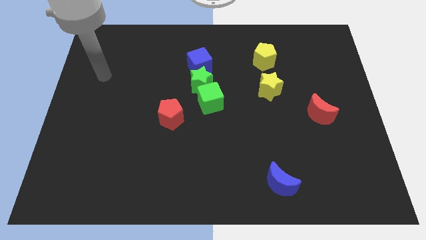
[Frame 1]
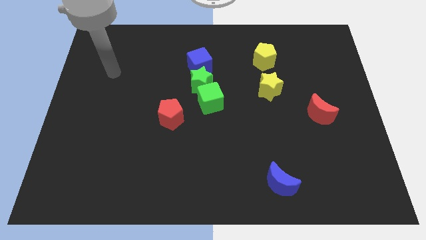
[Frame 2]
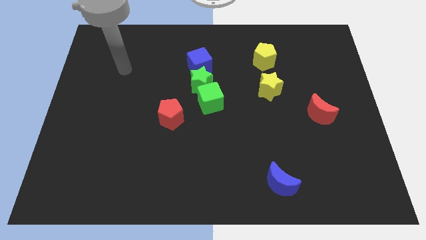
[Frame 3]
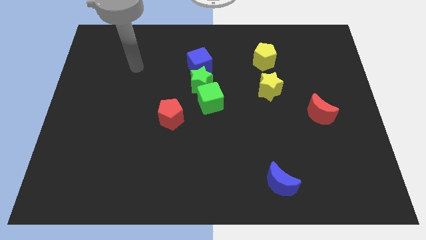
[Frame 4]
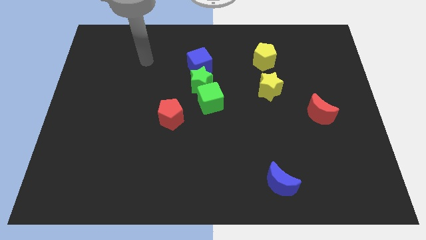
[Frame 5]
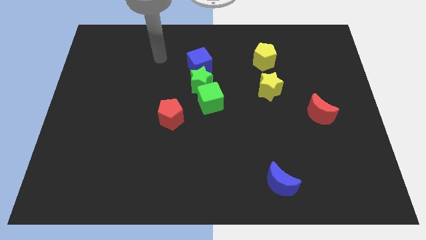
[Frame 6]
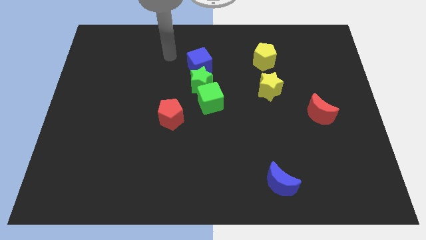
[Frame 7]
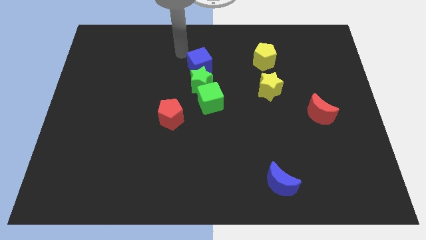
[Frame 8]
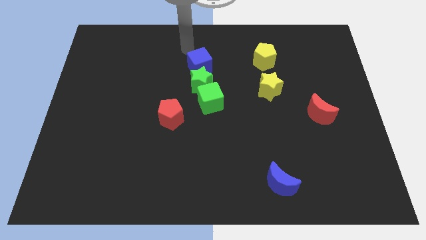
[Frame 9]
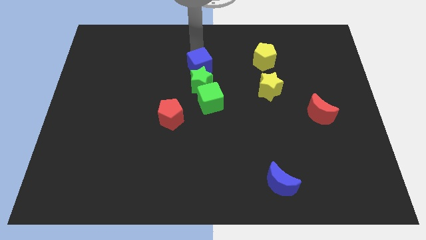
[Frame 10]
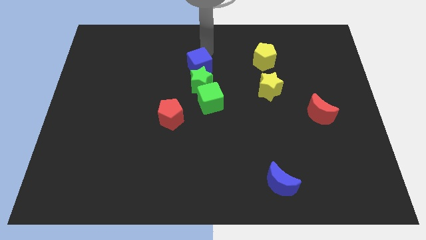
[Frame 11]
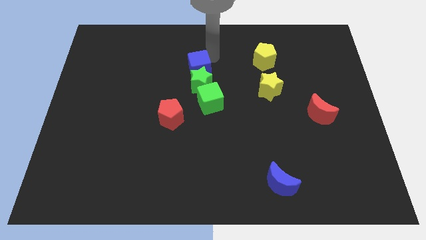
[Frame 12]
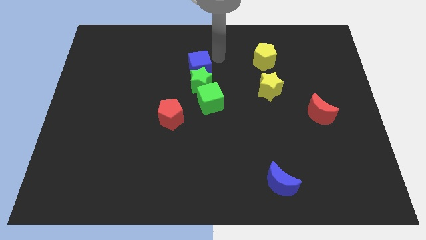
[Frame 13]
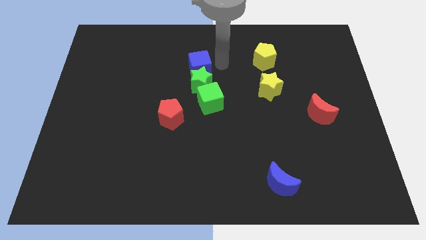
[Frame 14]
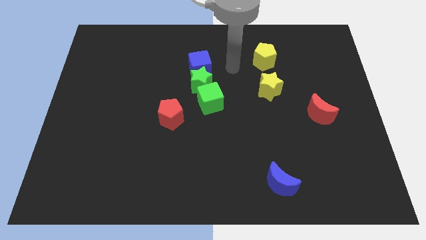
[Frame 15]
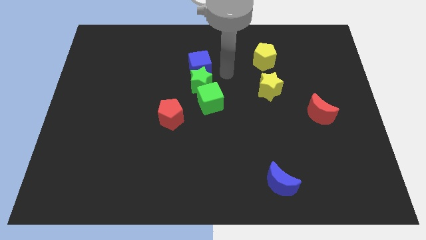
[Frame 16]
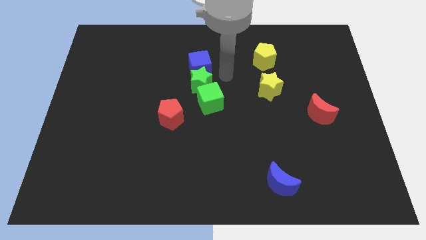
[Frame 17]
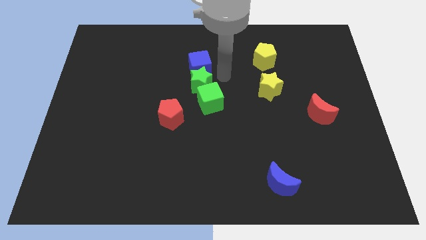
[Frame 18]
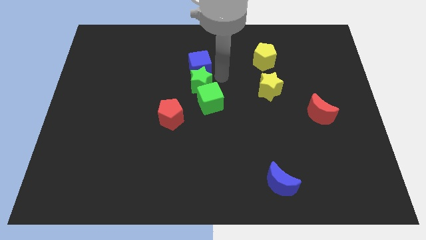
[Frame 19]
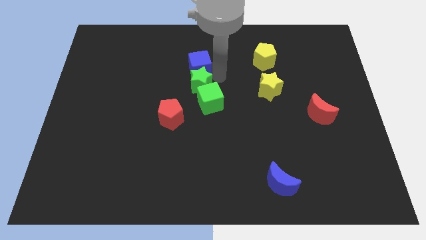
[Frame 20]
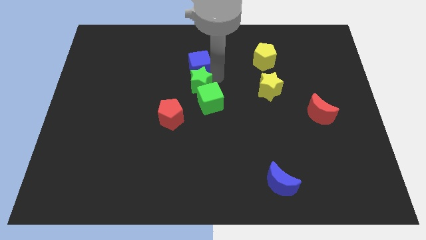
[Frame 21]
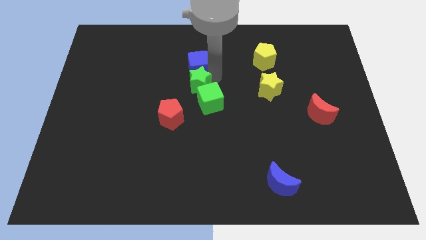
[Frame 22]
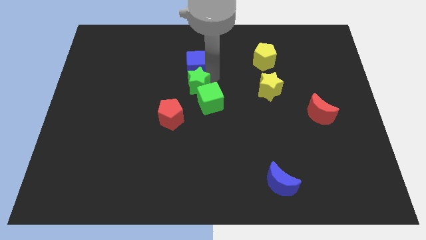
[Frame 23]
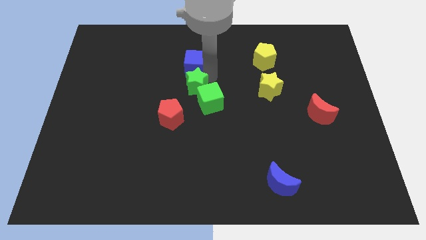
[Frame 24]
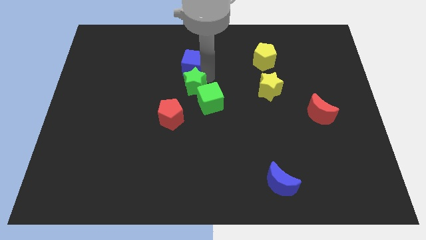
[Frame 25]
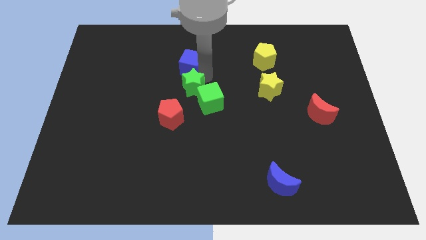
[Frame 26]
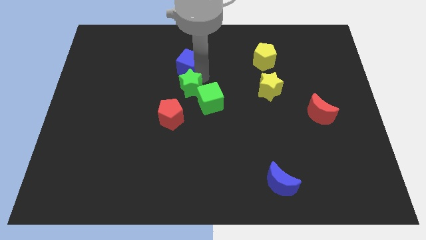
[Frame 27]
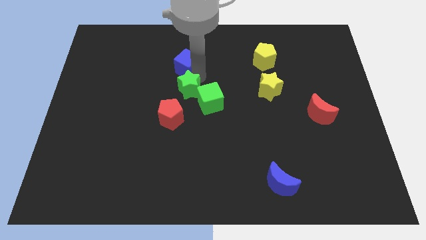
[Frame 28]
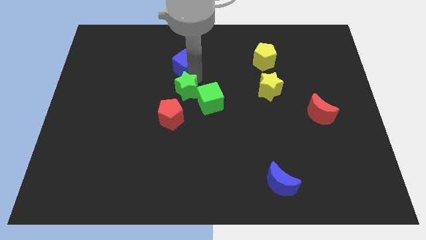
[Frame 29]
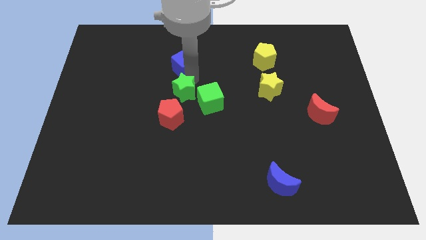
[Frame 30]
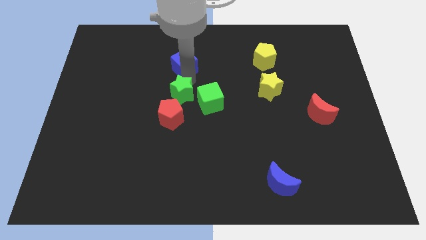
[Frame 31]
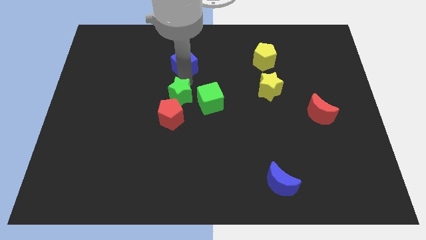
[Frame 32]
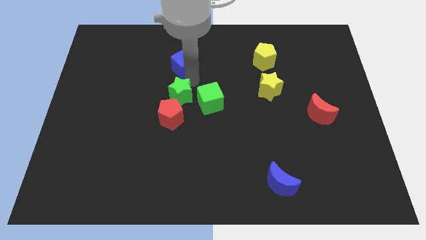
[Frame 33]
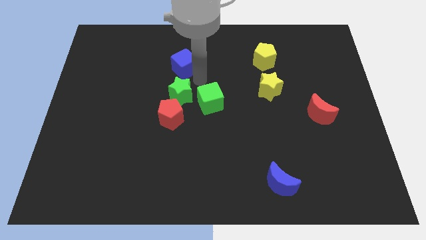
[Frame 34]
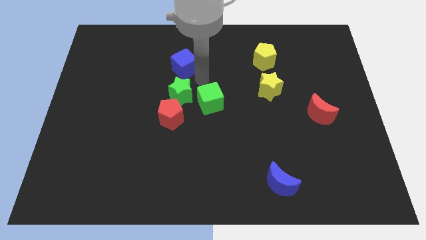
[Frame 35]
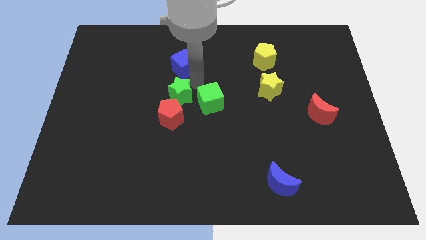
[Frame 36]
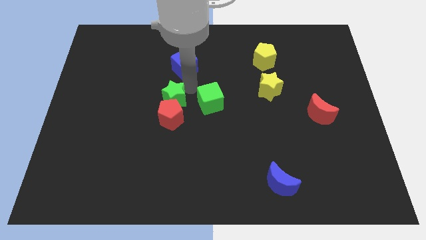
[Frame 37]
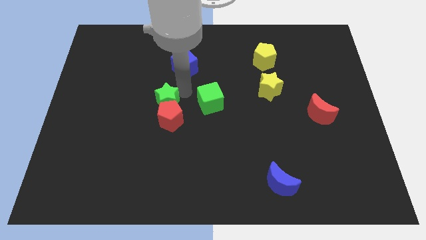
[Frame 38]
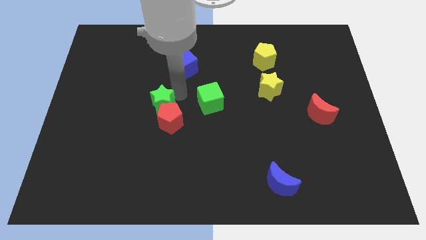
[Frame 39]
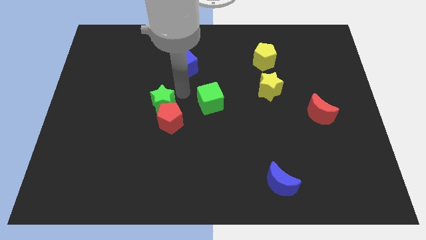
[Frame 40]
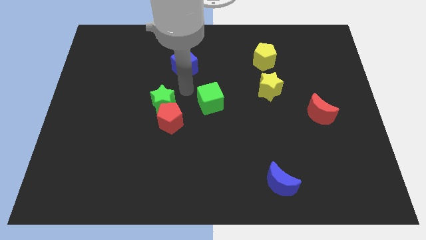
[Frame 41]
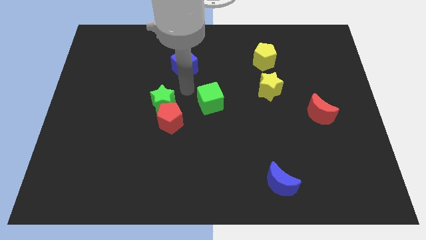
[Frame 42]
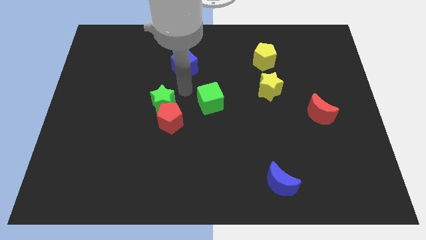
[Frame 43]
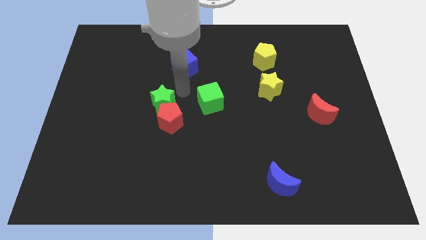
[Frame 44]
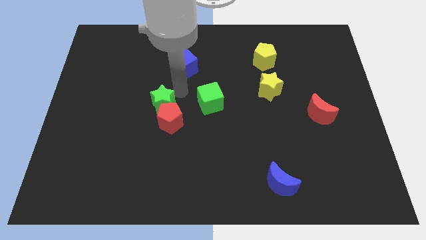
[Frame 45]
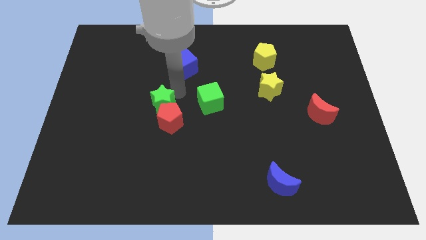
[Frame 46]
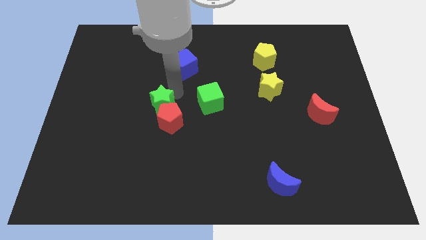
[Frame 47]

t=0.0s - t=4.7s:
move the green star away from the green cube and blue cube

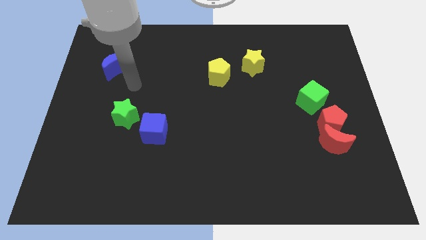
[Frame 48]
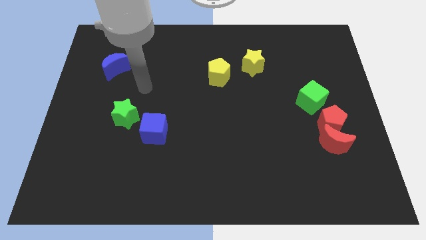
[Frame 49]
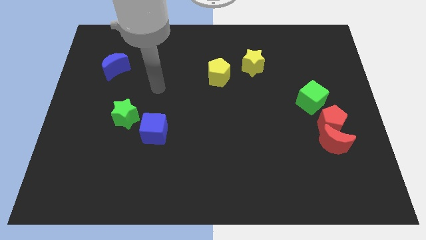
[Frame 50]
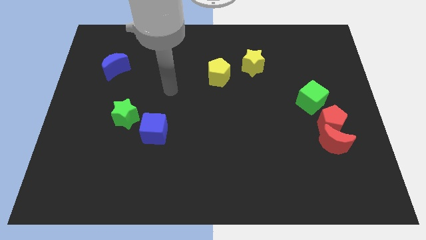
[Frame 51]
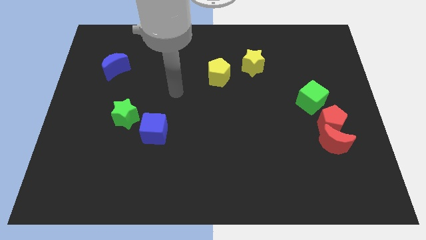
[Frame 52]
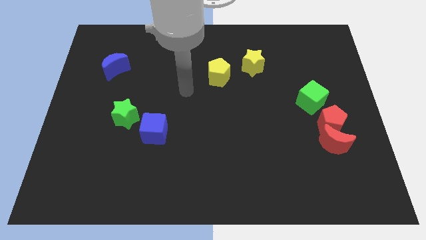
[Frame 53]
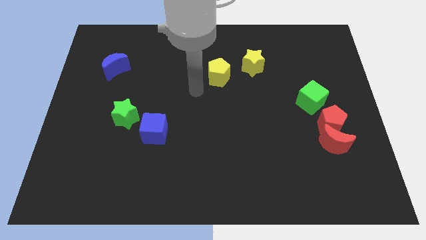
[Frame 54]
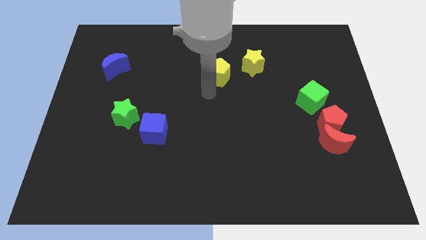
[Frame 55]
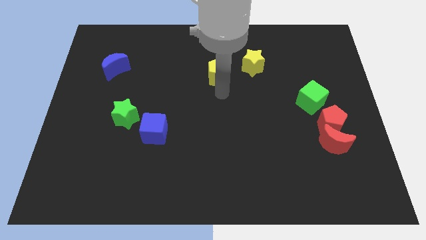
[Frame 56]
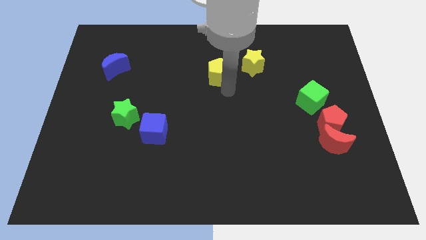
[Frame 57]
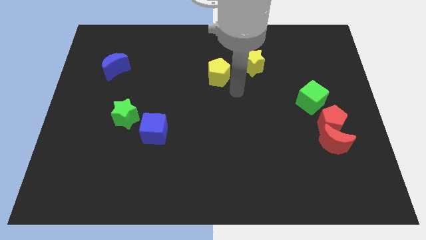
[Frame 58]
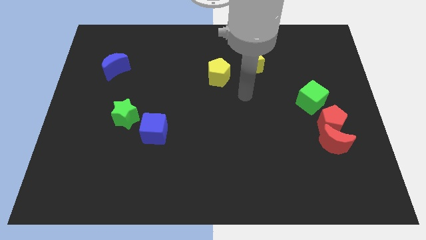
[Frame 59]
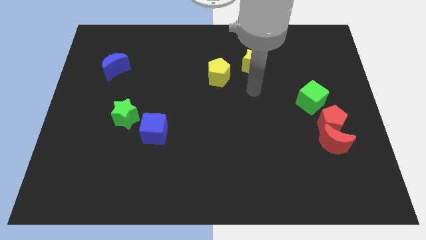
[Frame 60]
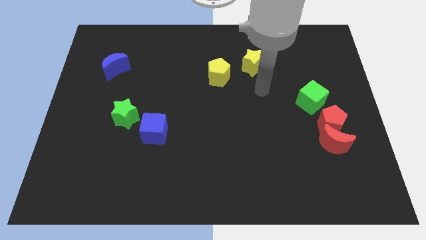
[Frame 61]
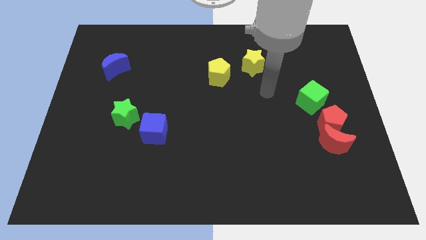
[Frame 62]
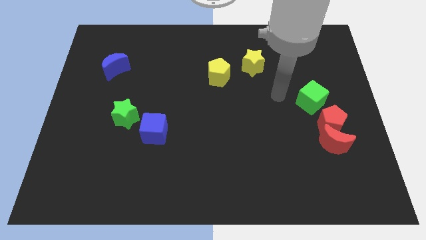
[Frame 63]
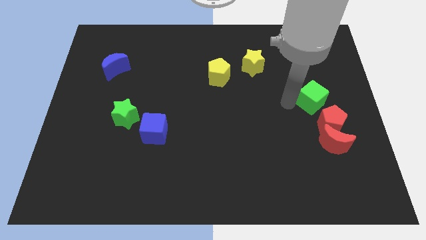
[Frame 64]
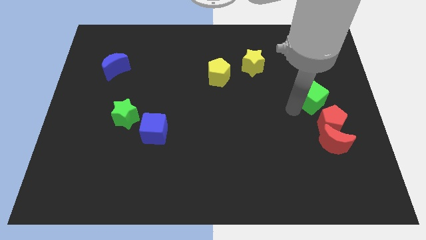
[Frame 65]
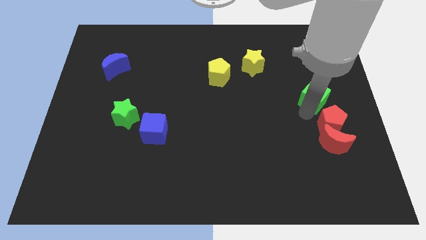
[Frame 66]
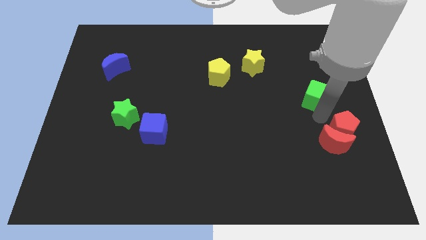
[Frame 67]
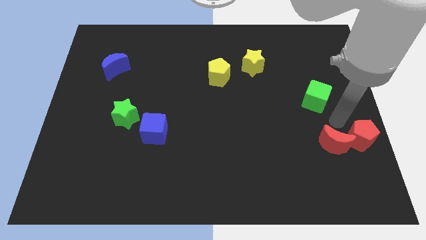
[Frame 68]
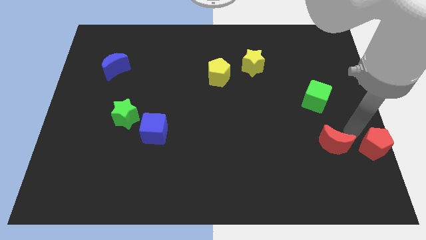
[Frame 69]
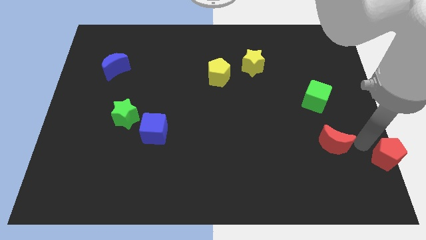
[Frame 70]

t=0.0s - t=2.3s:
pull the red moon apart from the red pentagon

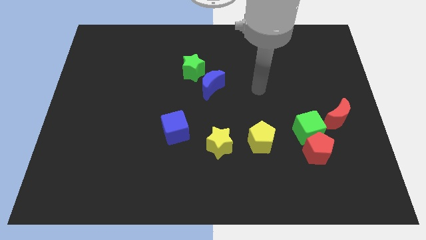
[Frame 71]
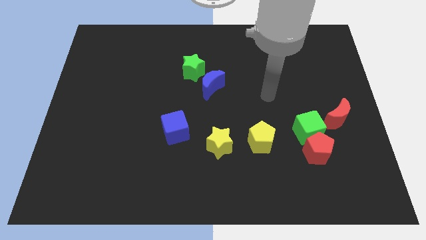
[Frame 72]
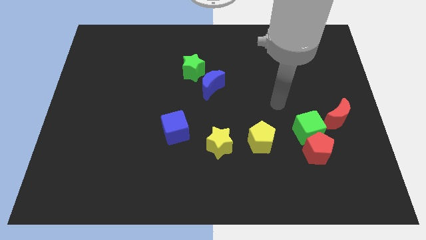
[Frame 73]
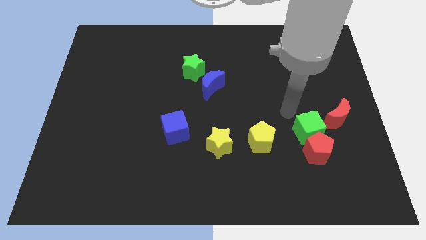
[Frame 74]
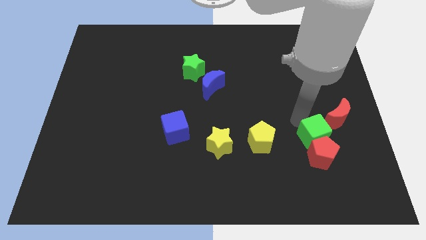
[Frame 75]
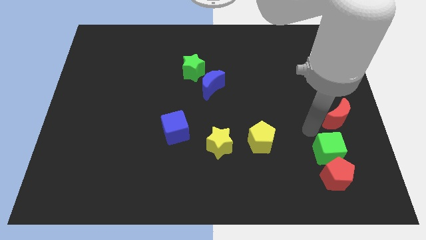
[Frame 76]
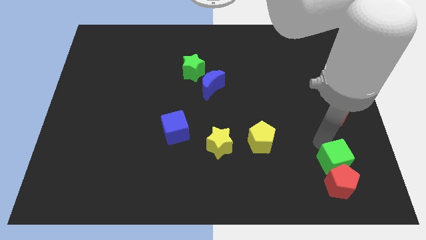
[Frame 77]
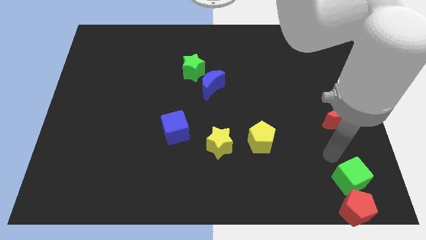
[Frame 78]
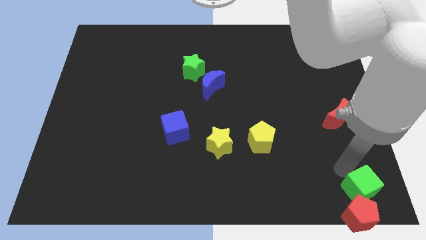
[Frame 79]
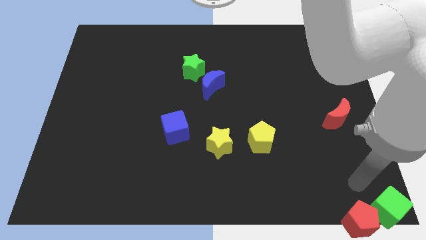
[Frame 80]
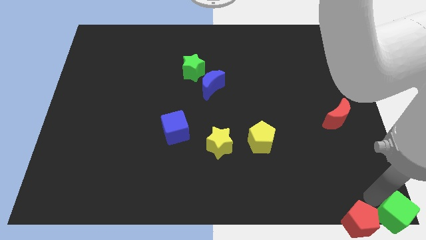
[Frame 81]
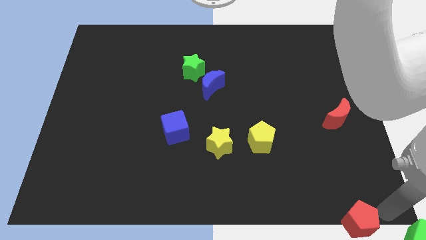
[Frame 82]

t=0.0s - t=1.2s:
move the red pentagon away from the green cube

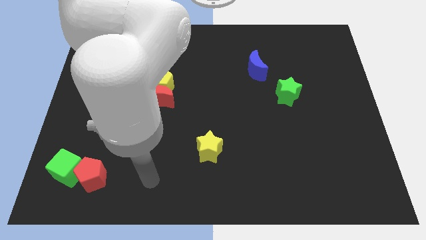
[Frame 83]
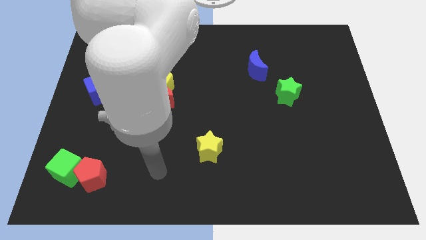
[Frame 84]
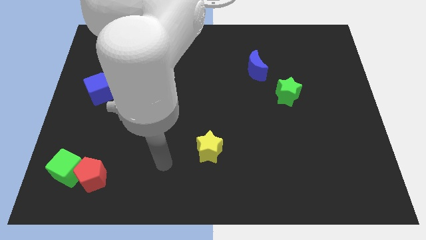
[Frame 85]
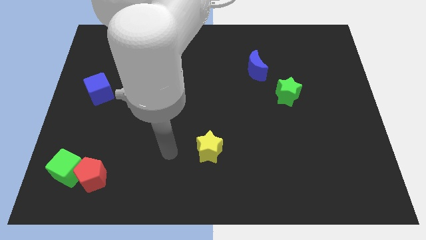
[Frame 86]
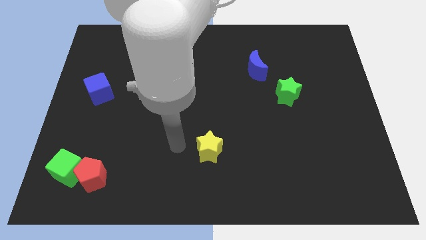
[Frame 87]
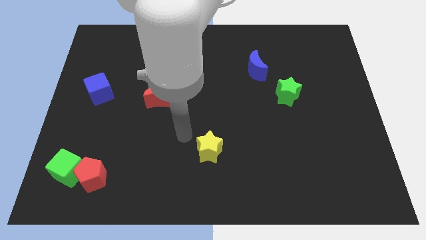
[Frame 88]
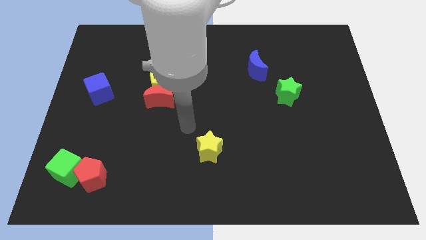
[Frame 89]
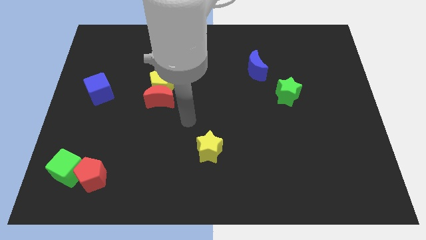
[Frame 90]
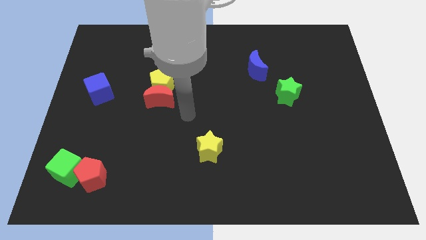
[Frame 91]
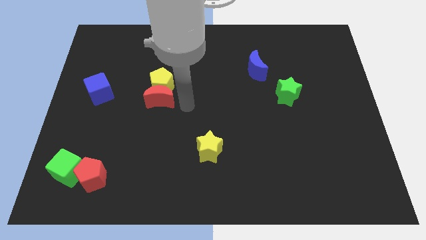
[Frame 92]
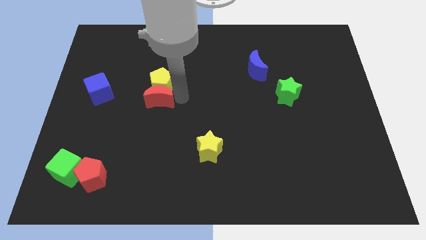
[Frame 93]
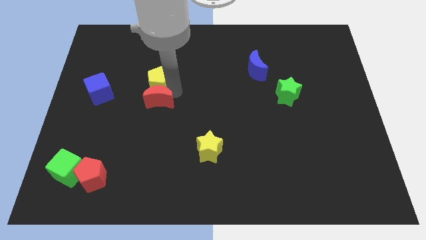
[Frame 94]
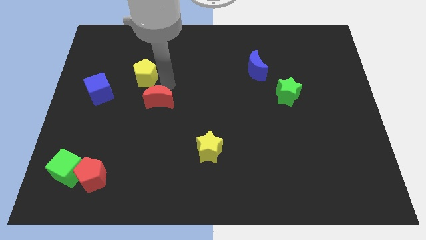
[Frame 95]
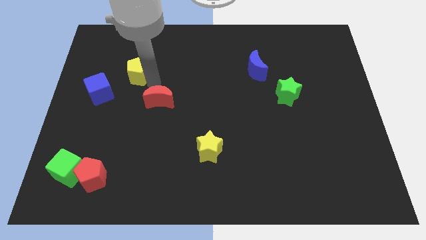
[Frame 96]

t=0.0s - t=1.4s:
move the red moon away from the yellow pentagon
